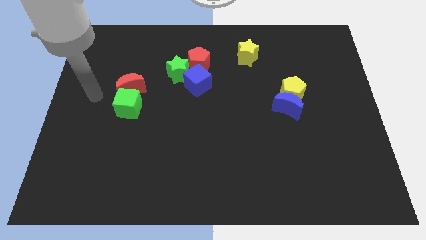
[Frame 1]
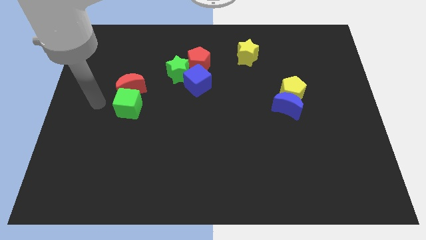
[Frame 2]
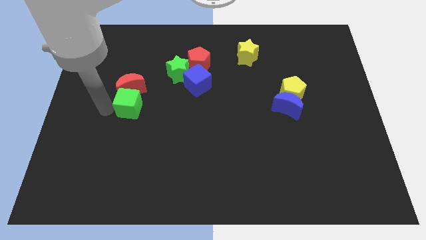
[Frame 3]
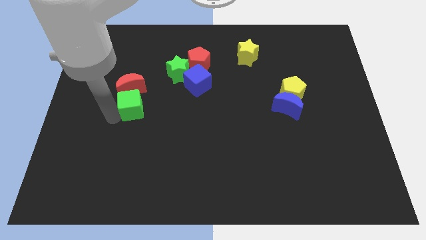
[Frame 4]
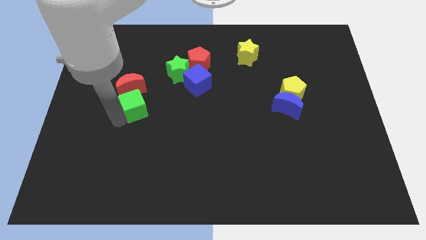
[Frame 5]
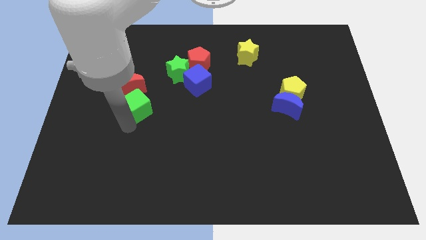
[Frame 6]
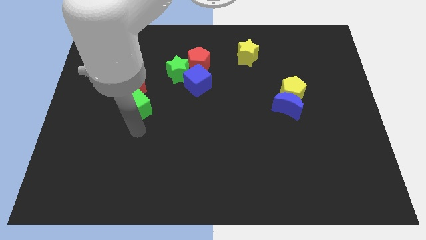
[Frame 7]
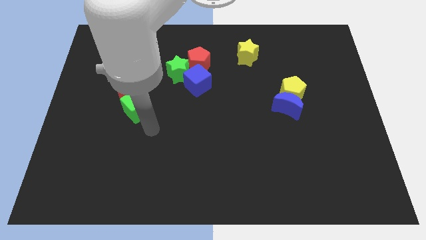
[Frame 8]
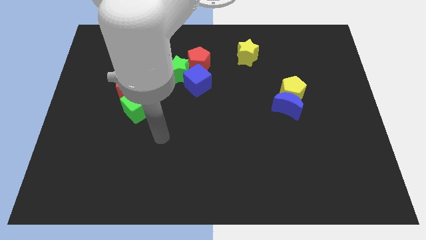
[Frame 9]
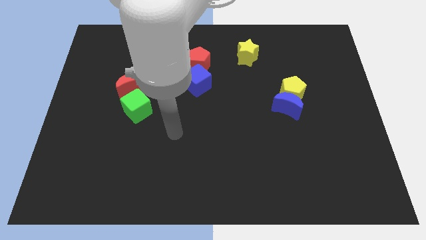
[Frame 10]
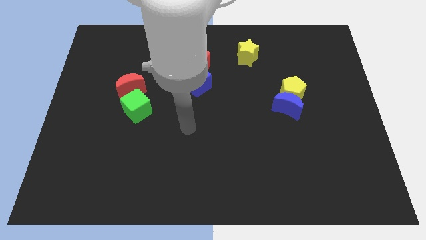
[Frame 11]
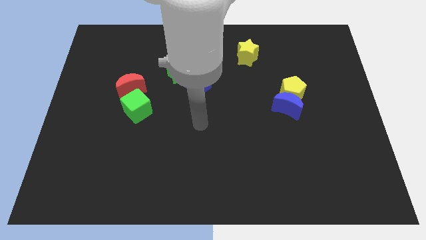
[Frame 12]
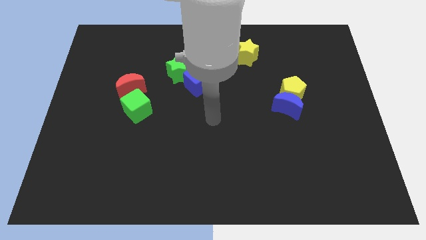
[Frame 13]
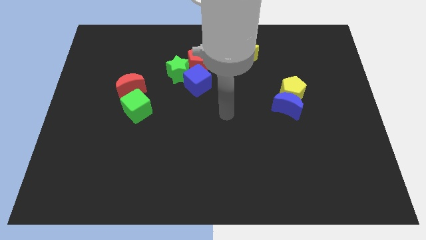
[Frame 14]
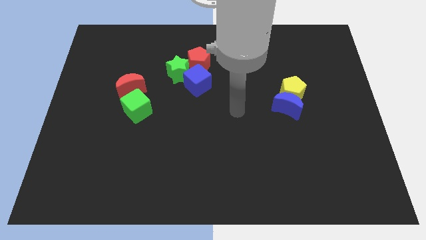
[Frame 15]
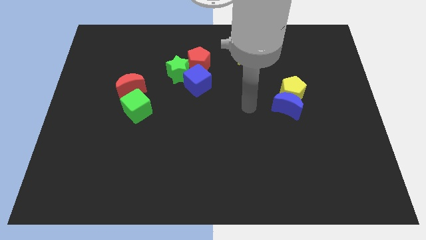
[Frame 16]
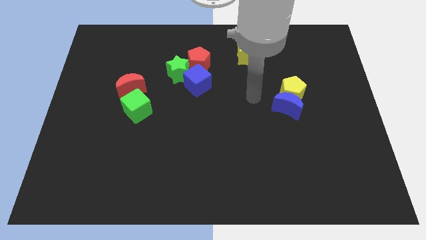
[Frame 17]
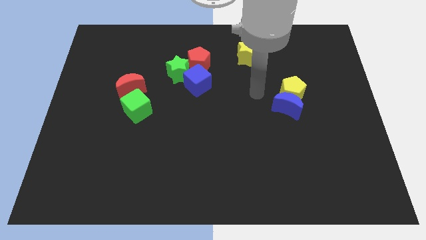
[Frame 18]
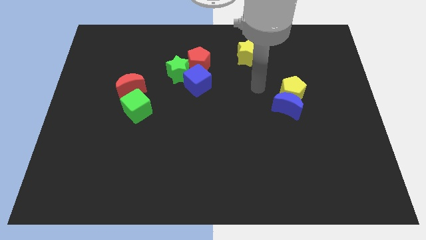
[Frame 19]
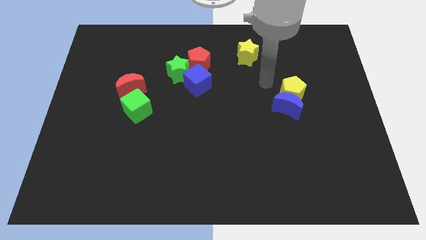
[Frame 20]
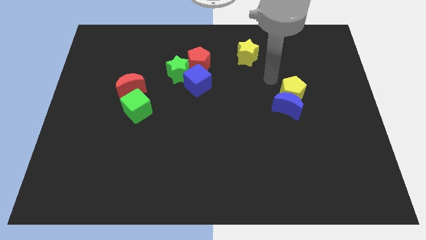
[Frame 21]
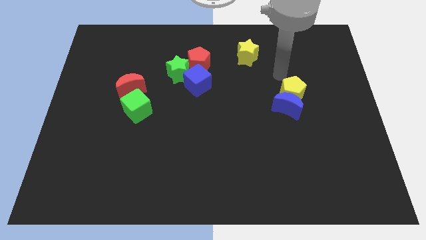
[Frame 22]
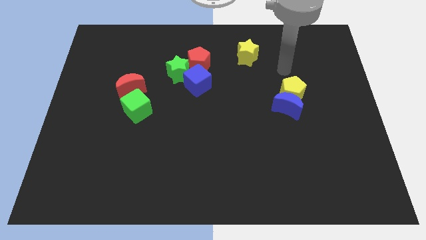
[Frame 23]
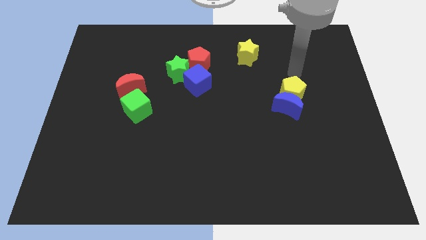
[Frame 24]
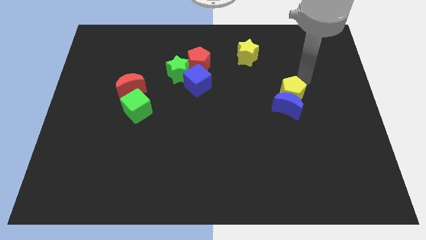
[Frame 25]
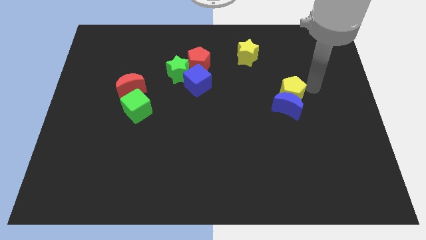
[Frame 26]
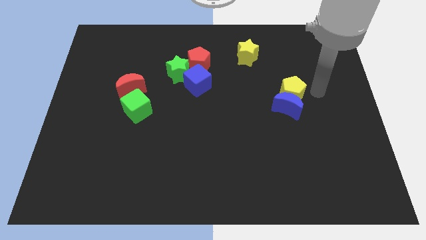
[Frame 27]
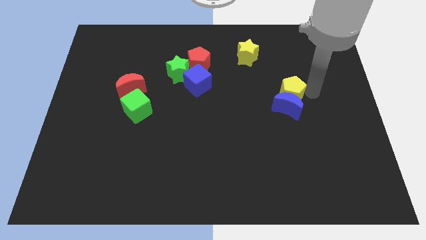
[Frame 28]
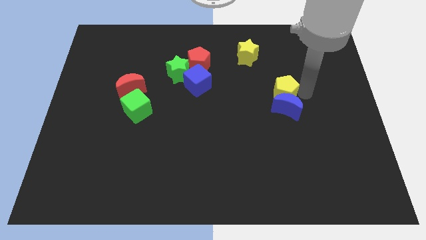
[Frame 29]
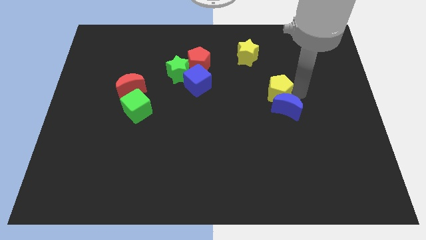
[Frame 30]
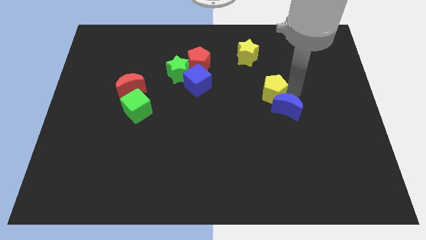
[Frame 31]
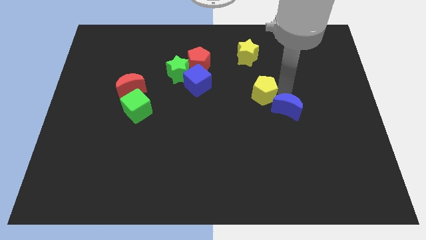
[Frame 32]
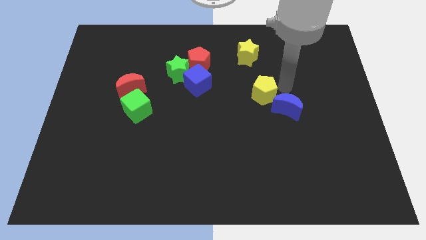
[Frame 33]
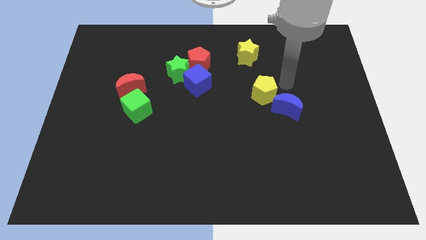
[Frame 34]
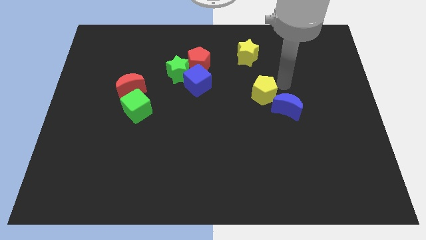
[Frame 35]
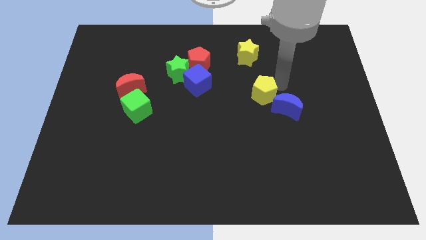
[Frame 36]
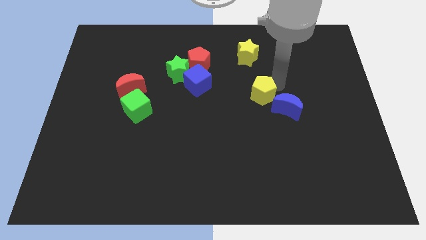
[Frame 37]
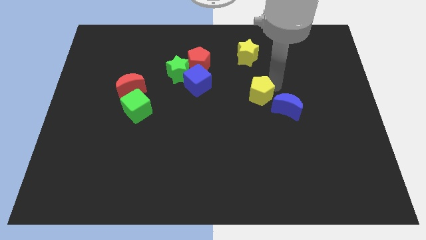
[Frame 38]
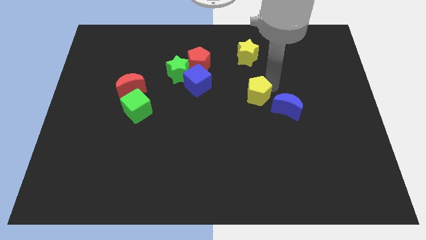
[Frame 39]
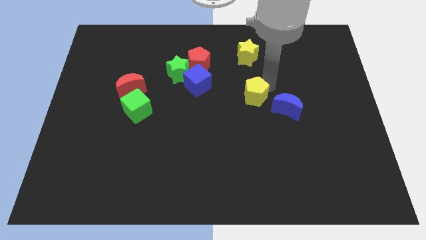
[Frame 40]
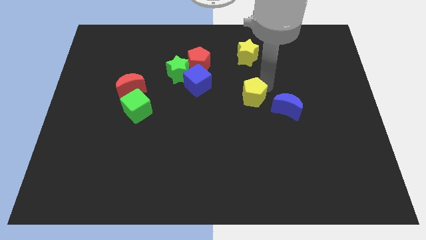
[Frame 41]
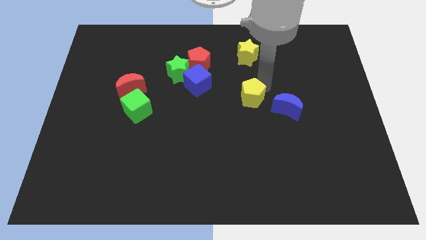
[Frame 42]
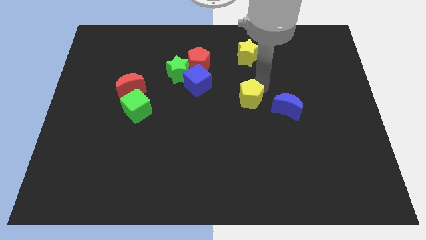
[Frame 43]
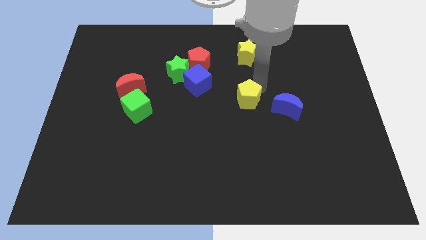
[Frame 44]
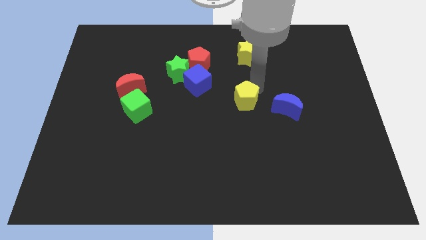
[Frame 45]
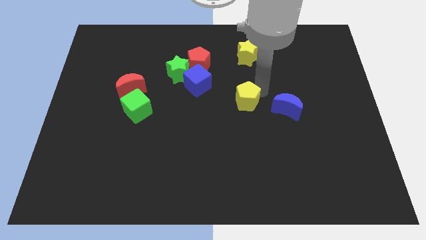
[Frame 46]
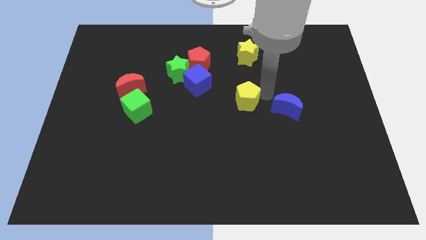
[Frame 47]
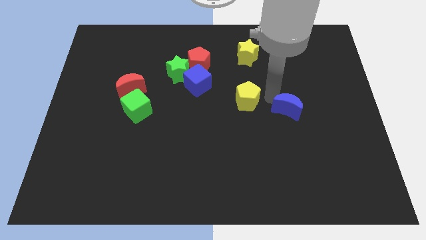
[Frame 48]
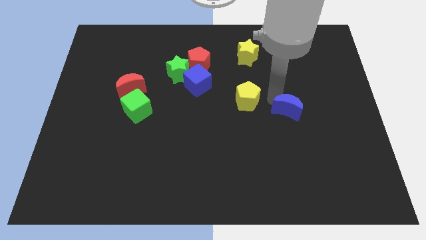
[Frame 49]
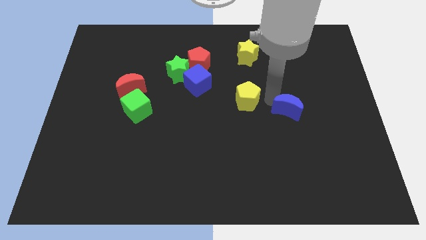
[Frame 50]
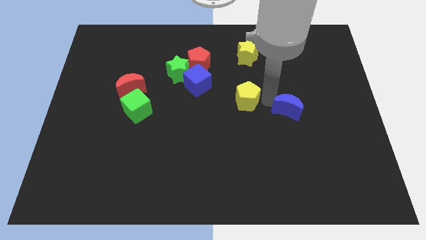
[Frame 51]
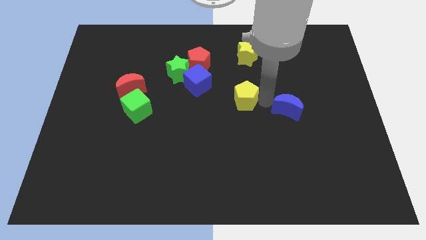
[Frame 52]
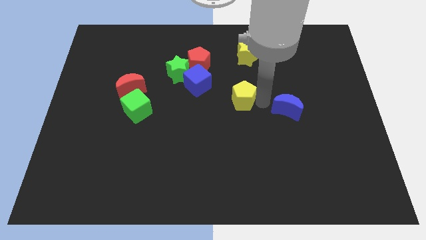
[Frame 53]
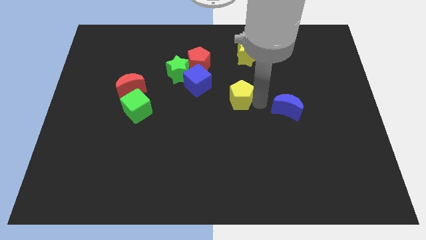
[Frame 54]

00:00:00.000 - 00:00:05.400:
slide the yellow pentagon to the bottom right of the blue cube

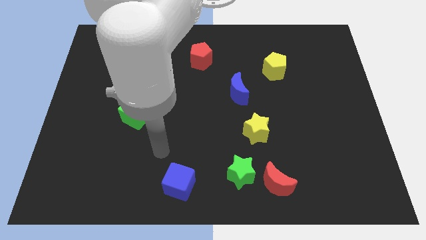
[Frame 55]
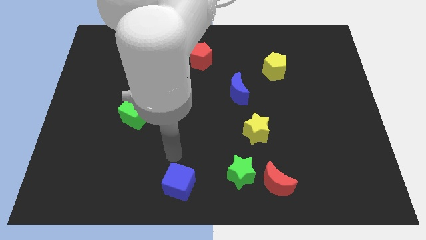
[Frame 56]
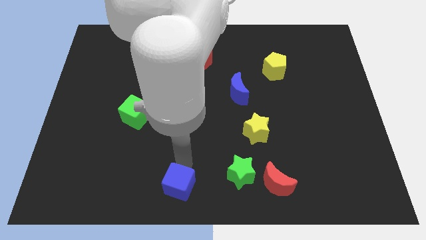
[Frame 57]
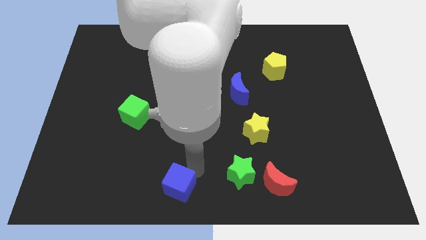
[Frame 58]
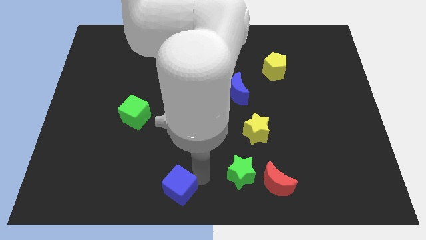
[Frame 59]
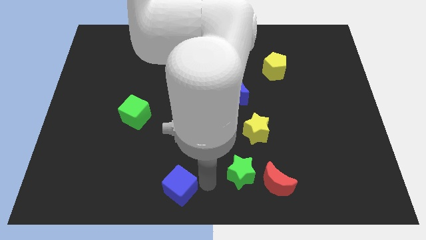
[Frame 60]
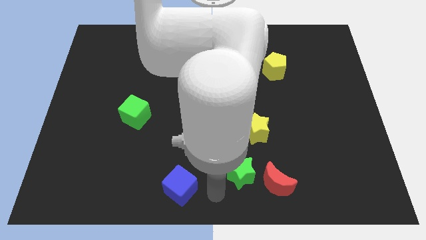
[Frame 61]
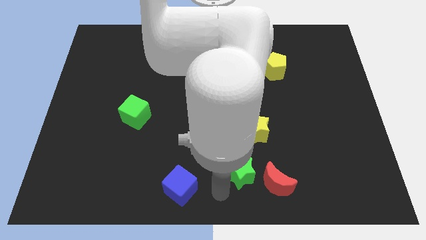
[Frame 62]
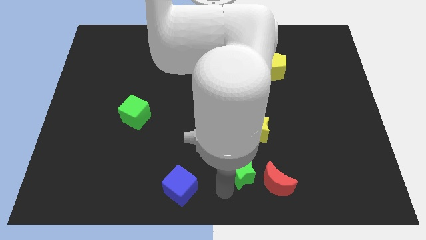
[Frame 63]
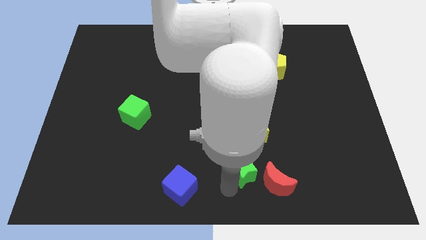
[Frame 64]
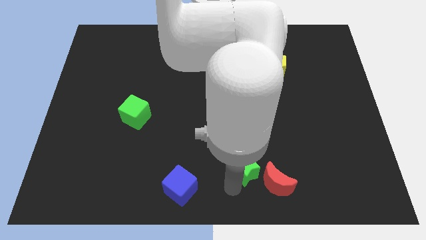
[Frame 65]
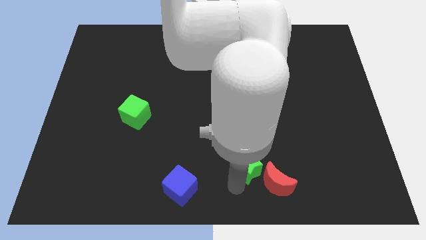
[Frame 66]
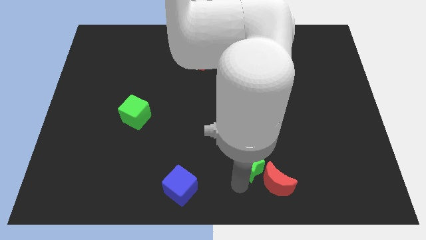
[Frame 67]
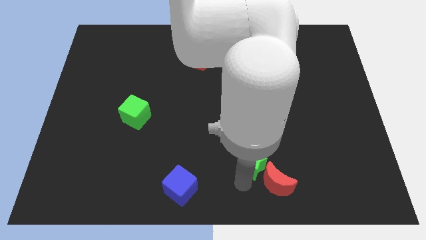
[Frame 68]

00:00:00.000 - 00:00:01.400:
slide the green star above the red moon
